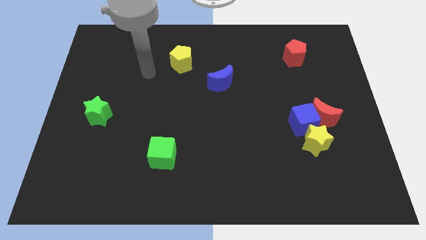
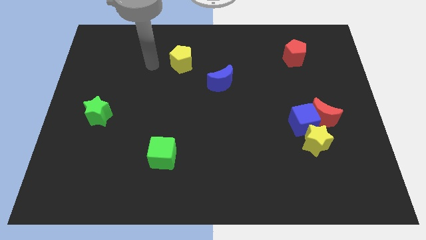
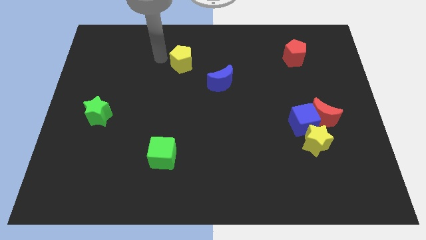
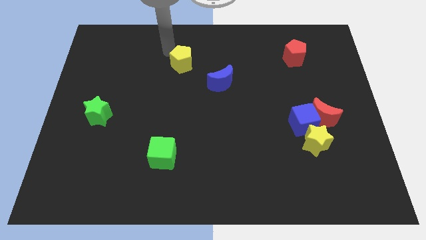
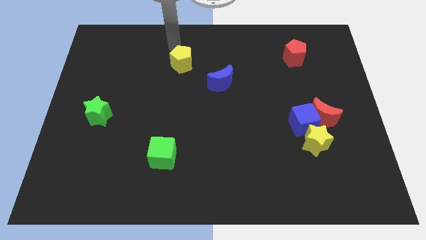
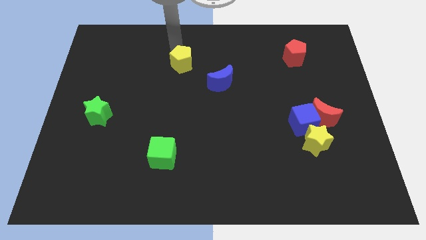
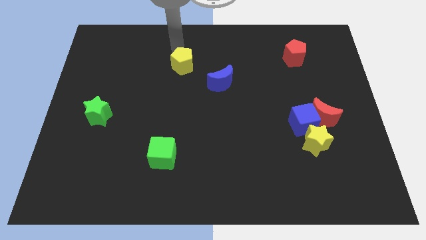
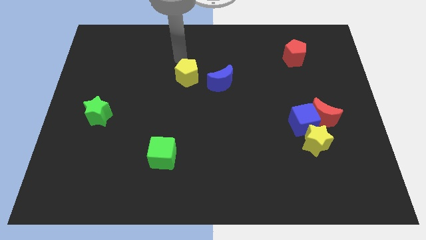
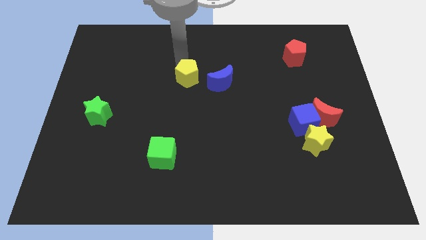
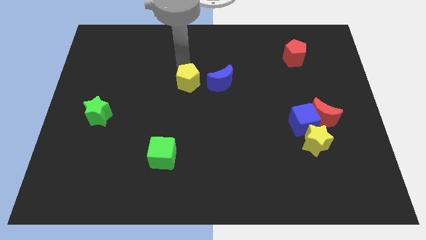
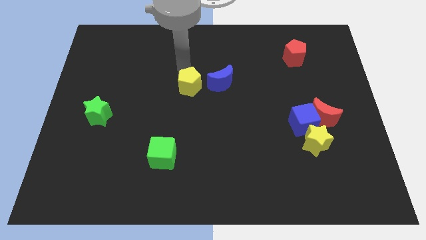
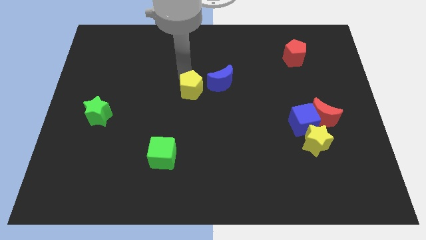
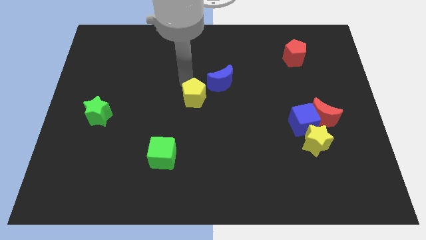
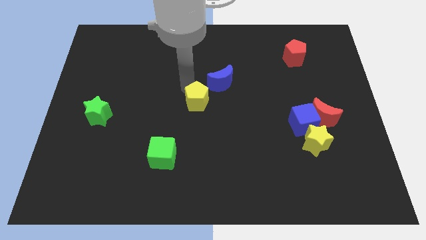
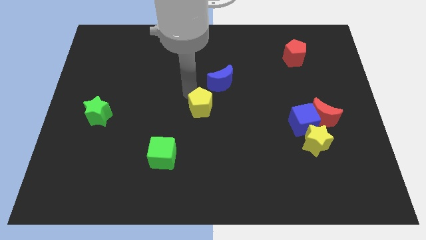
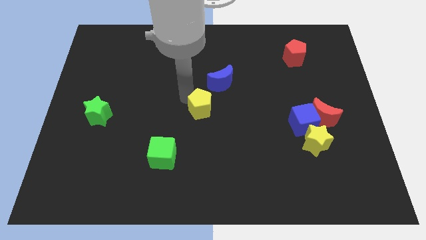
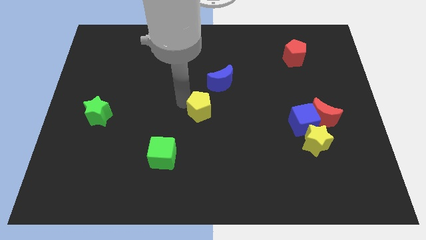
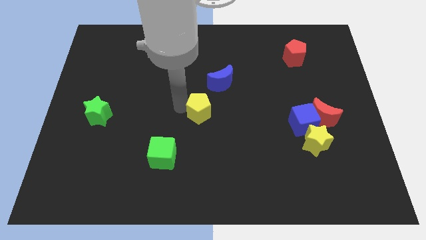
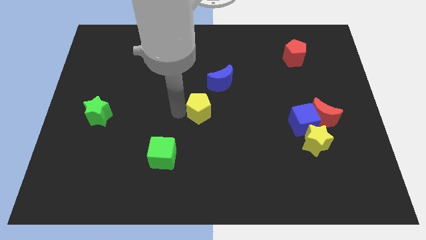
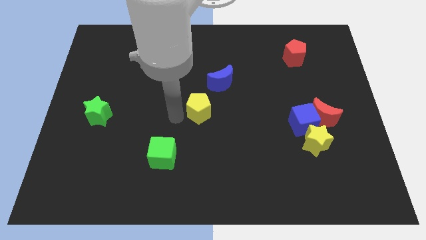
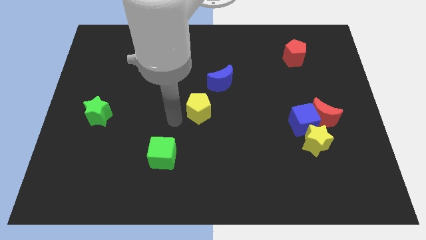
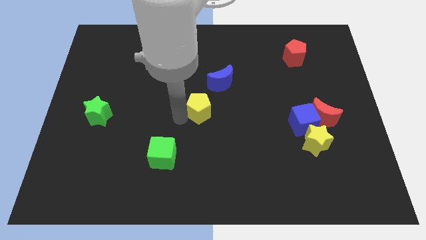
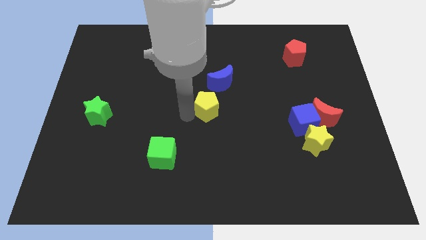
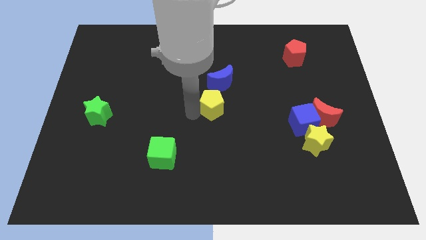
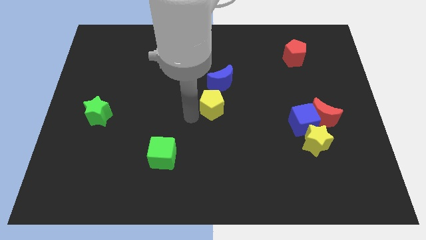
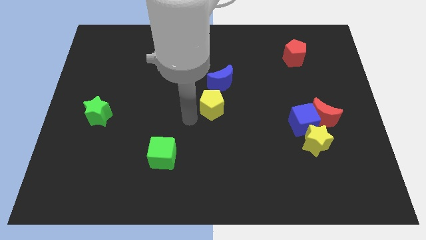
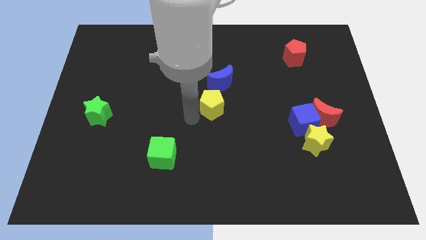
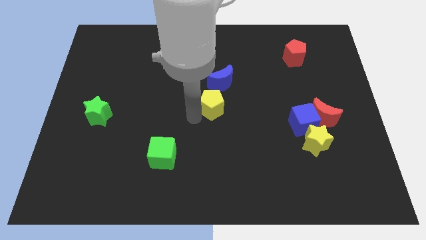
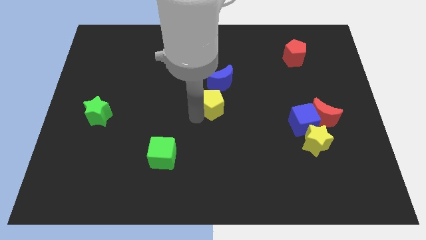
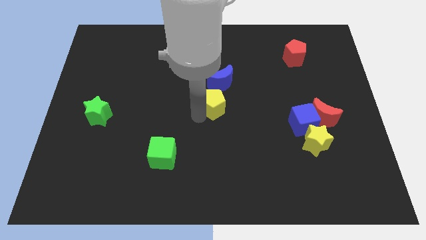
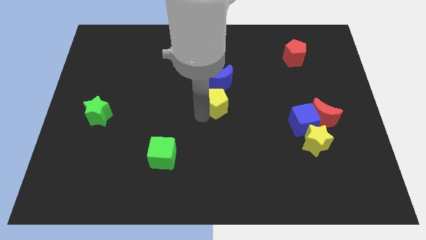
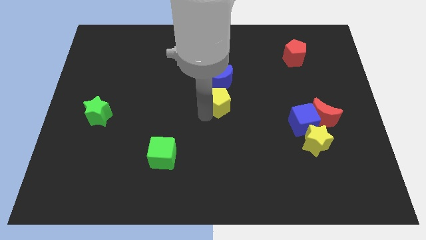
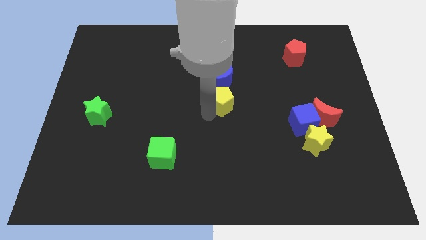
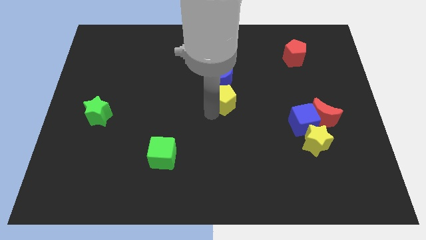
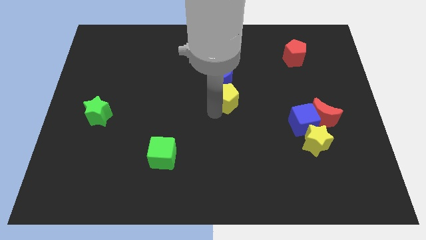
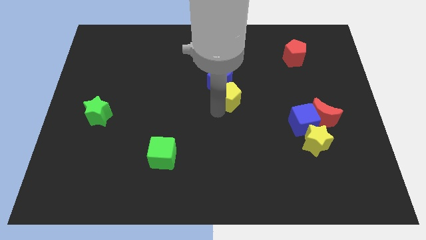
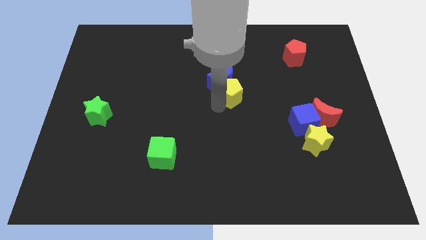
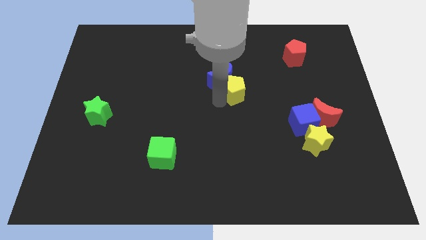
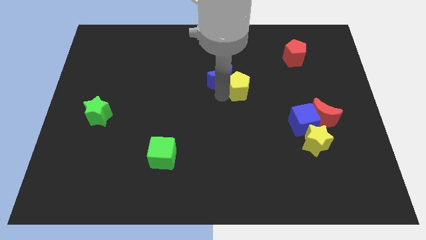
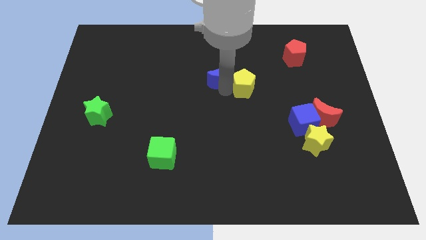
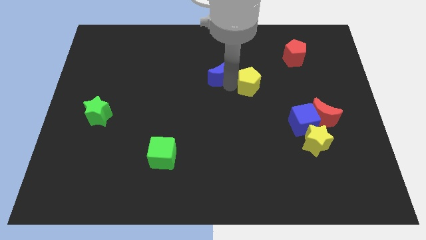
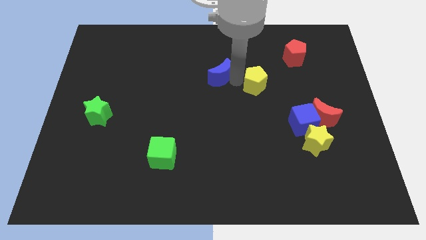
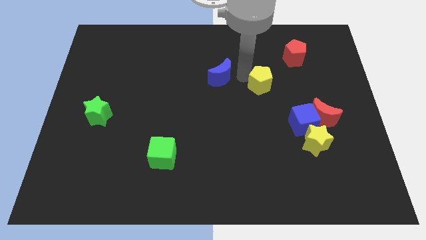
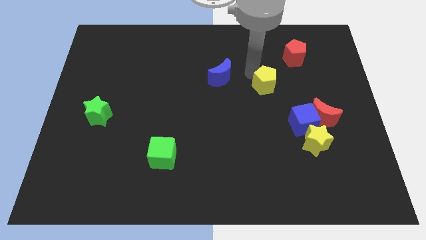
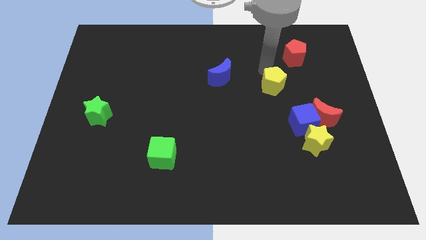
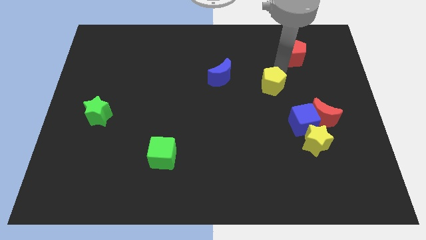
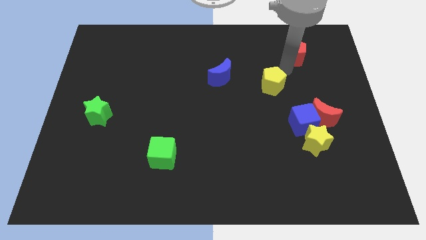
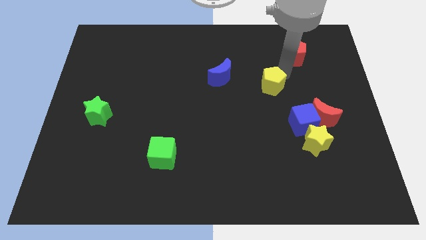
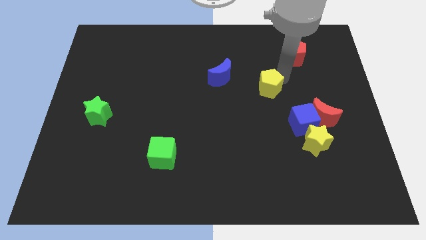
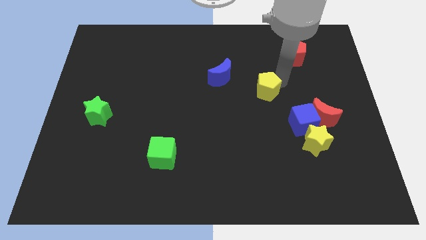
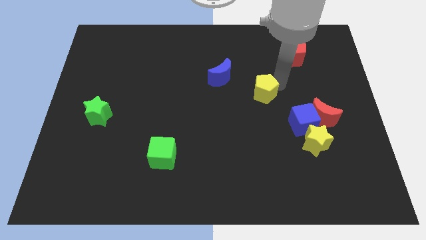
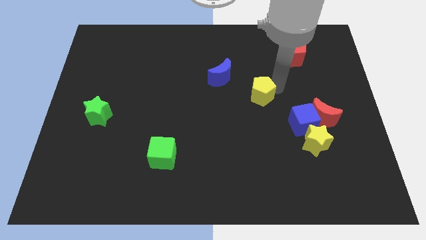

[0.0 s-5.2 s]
push the yellow pentagon diagonally downwards and right

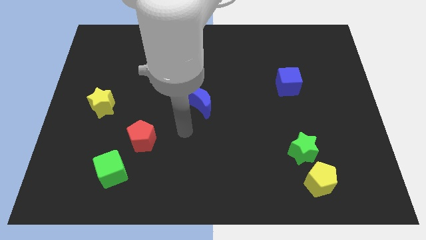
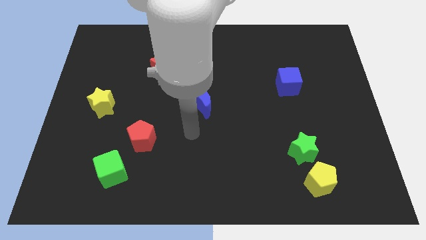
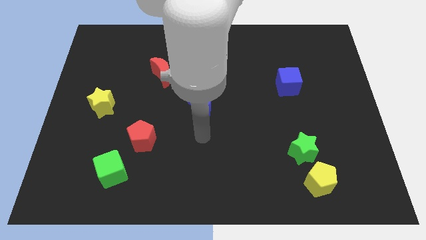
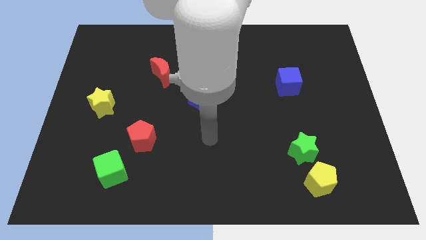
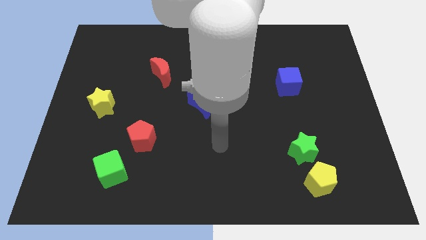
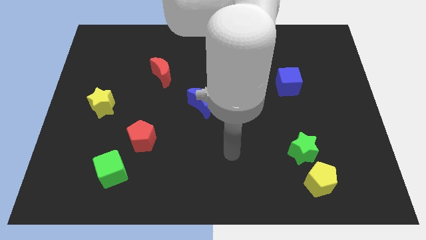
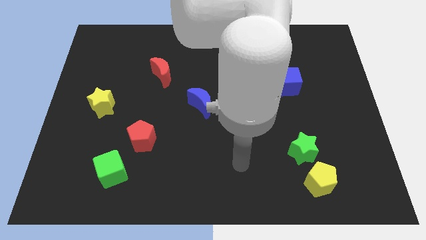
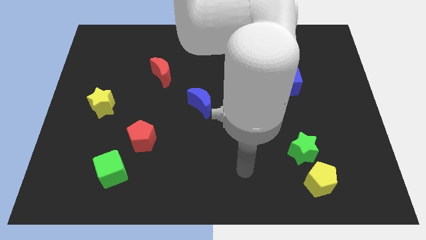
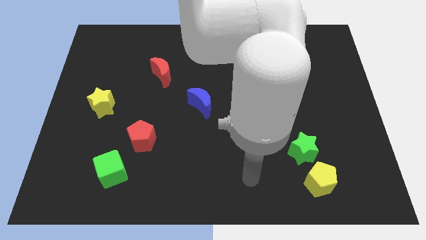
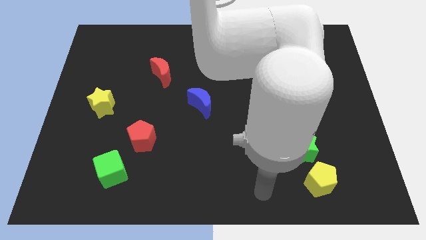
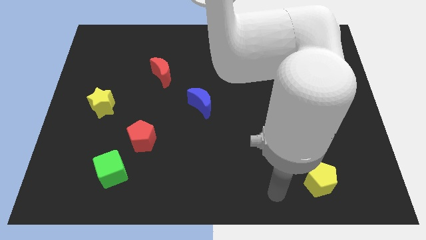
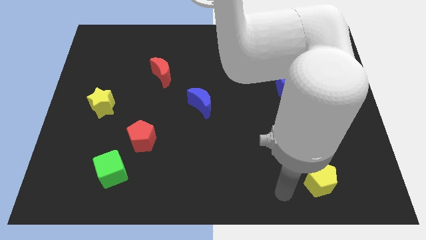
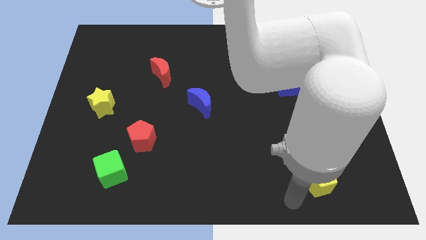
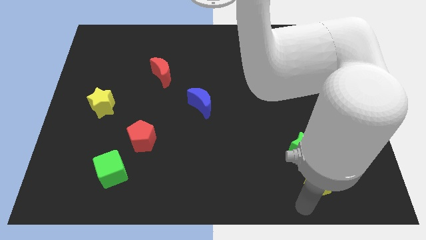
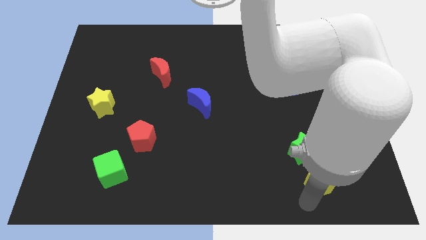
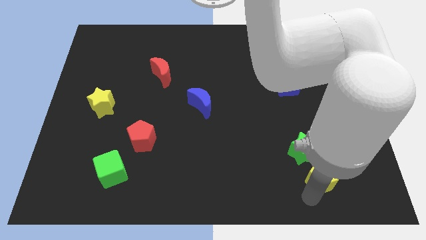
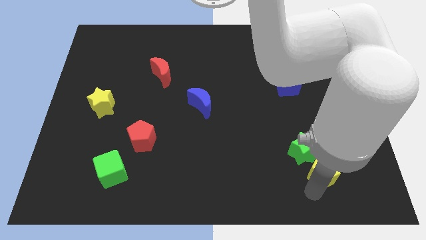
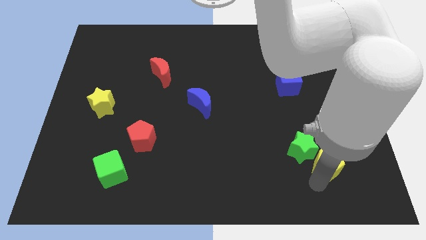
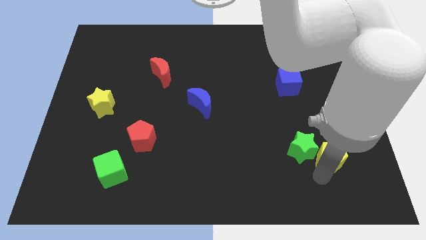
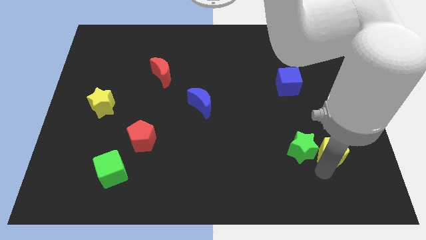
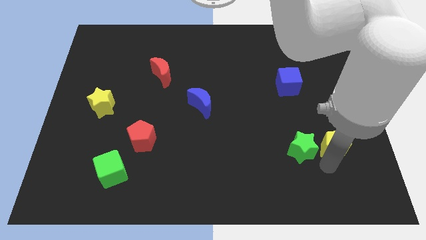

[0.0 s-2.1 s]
slightly push the yellow pentagon upwards

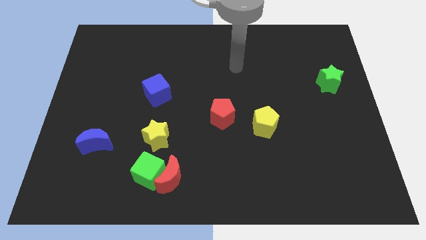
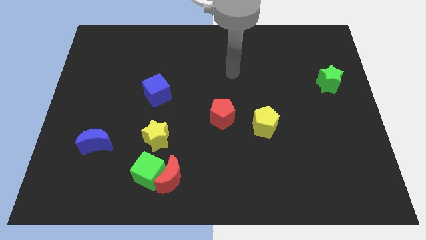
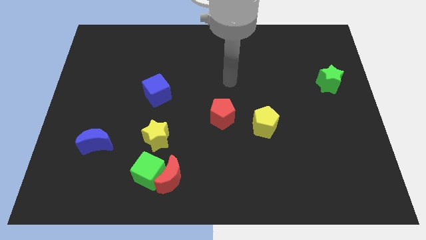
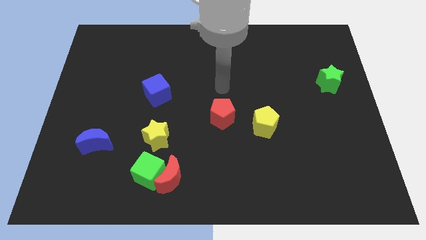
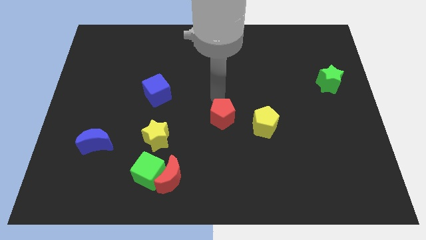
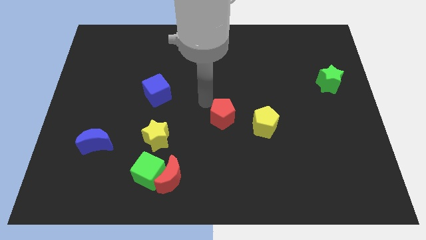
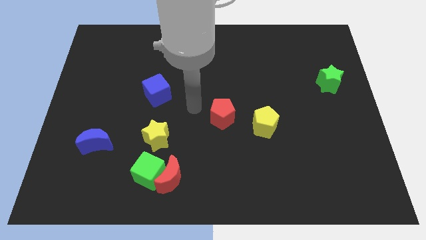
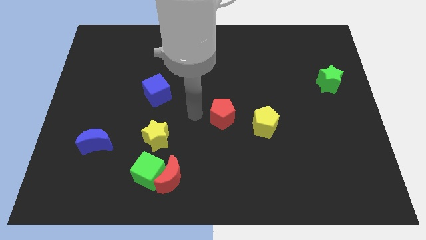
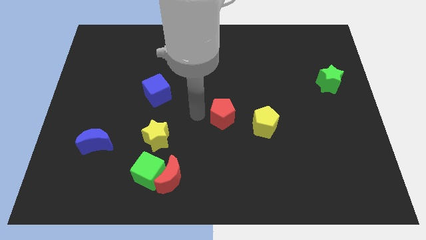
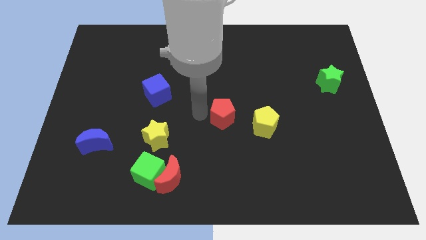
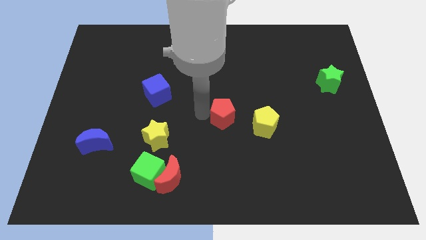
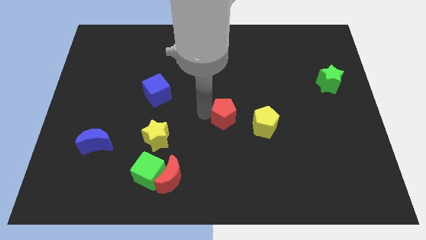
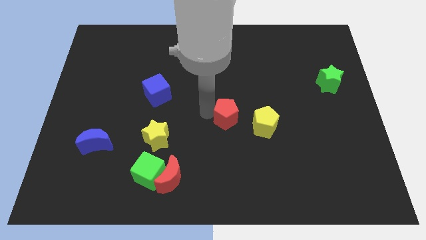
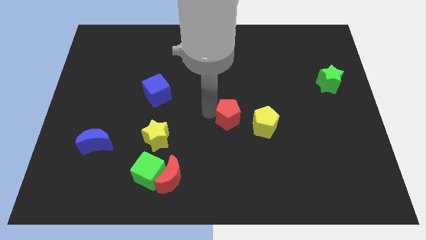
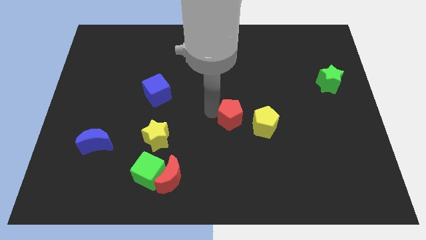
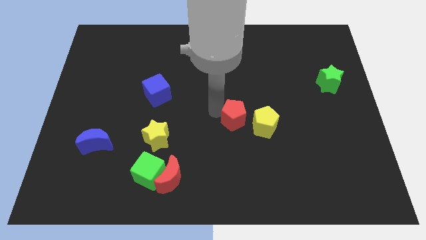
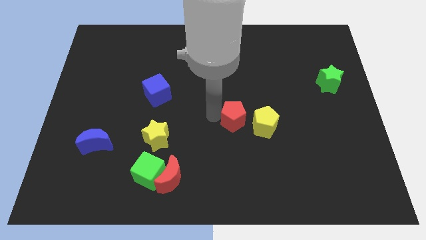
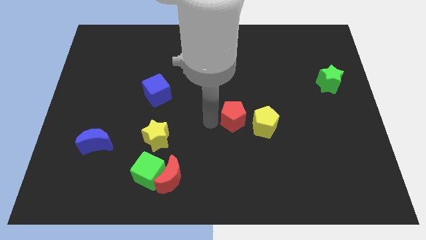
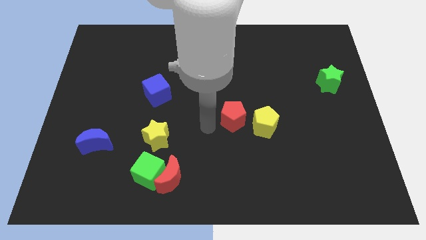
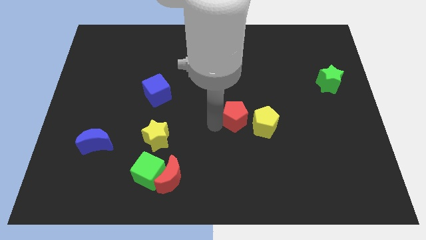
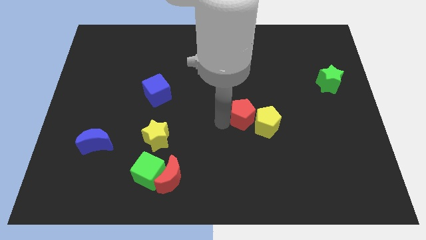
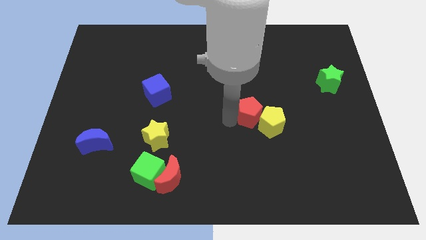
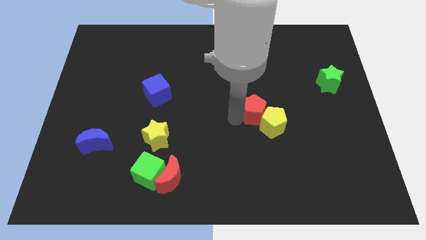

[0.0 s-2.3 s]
slightly push the red pentagon to the right
